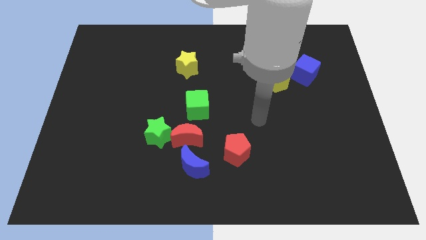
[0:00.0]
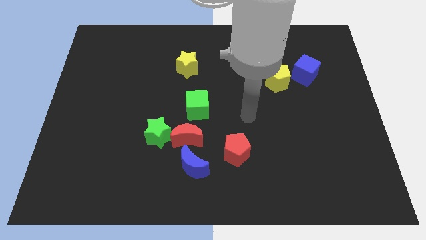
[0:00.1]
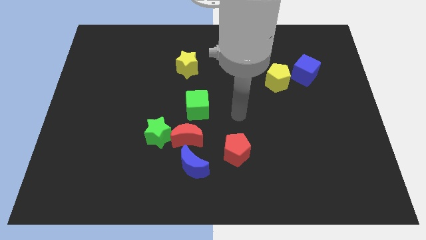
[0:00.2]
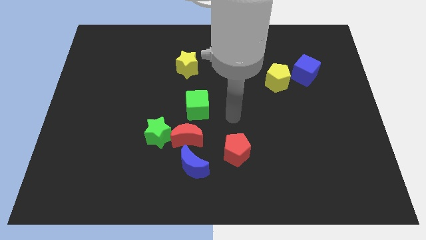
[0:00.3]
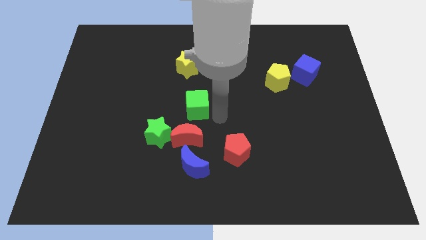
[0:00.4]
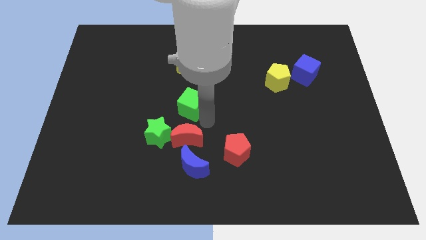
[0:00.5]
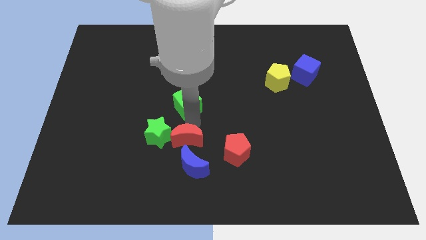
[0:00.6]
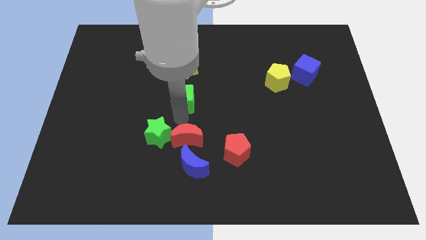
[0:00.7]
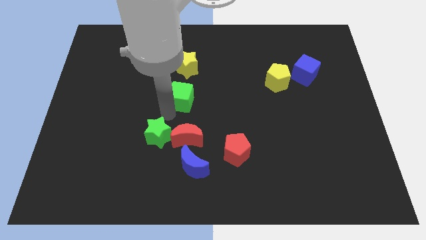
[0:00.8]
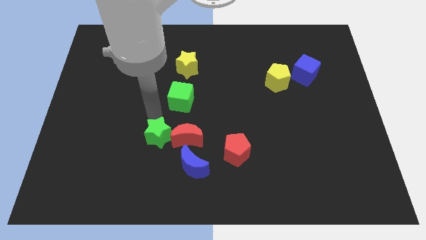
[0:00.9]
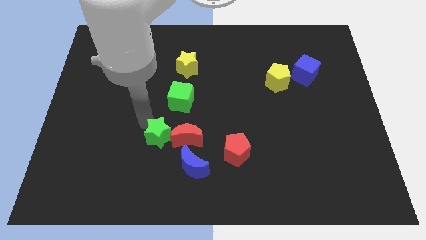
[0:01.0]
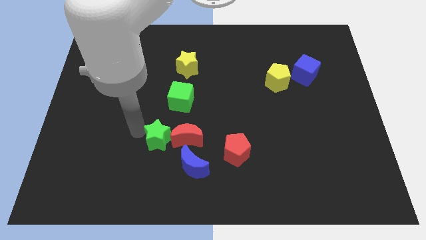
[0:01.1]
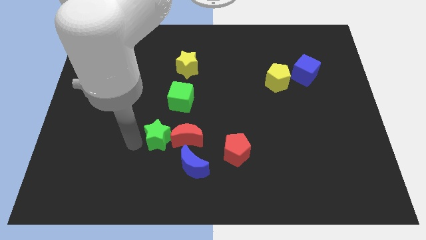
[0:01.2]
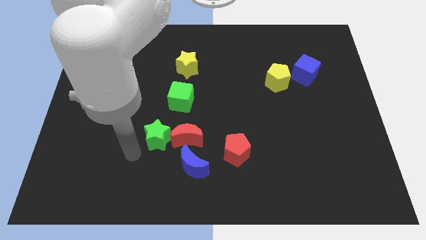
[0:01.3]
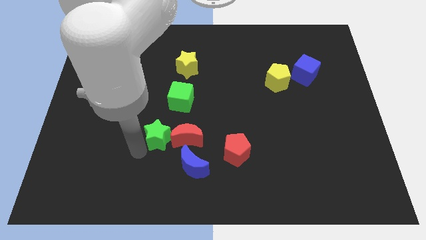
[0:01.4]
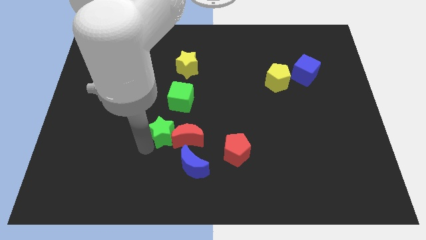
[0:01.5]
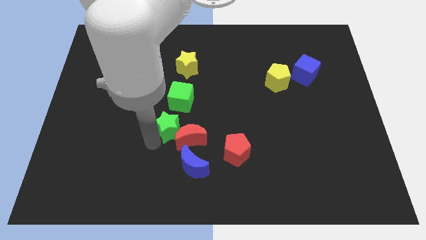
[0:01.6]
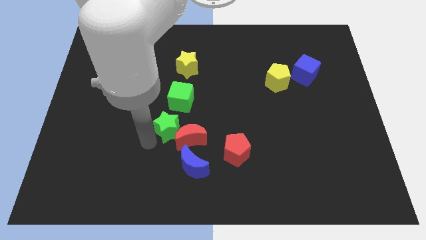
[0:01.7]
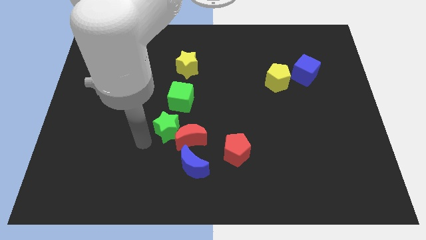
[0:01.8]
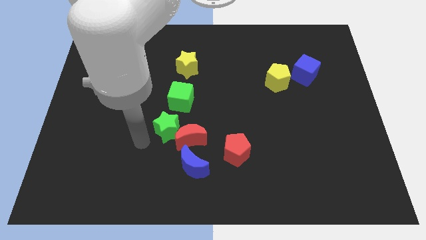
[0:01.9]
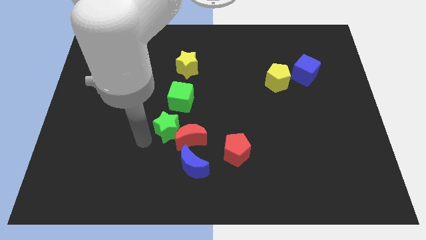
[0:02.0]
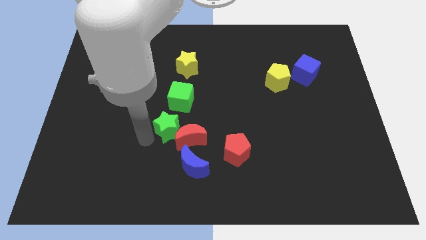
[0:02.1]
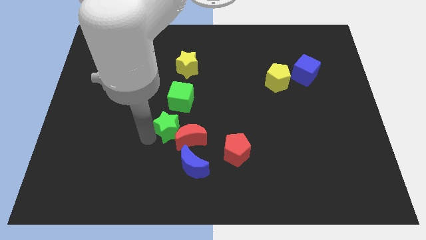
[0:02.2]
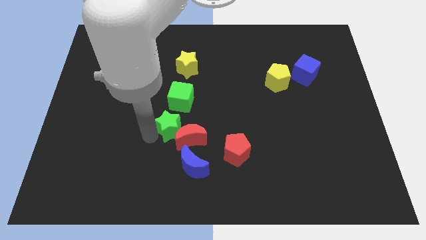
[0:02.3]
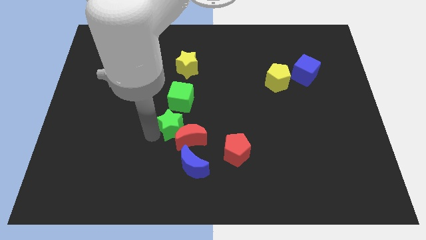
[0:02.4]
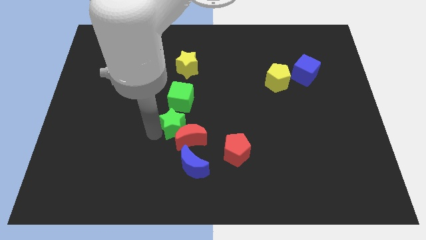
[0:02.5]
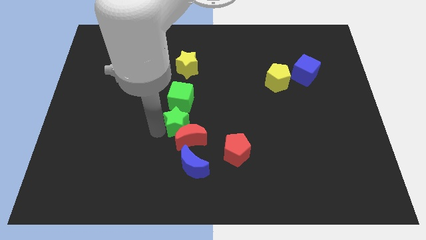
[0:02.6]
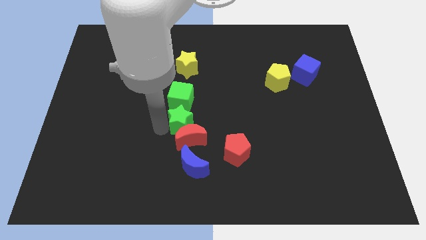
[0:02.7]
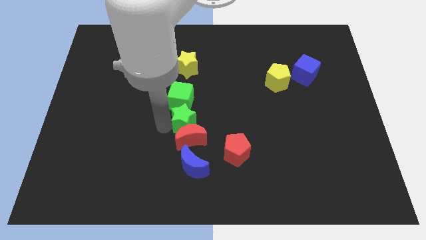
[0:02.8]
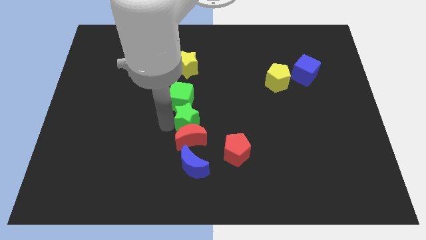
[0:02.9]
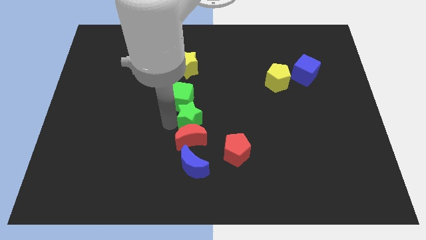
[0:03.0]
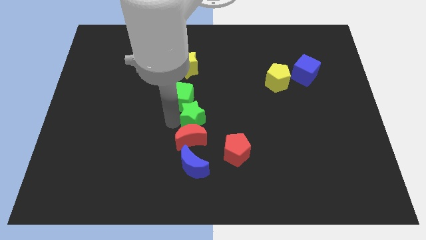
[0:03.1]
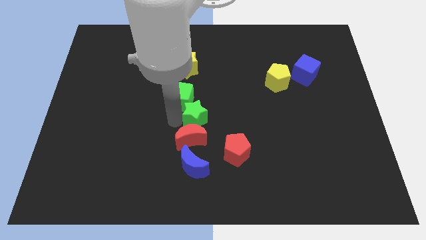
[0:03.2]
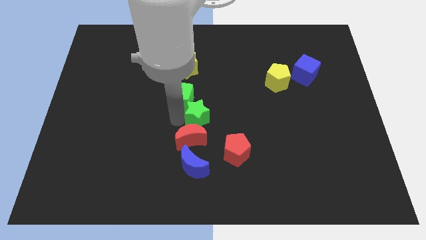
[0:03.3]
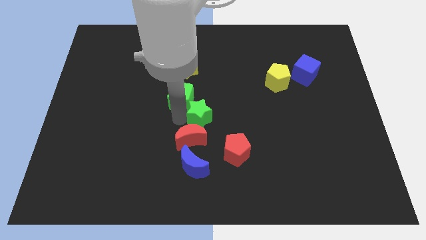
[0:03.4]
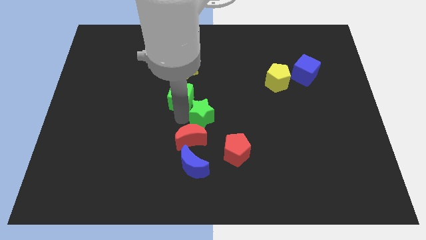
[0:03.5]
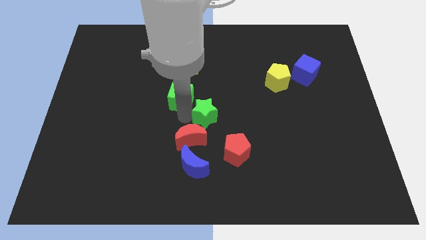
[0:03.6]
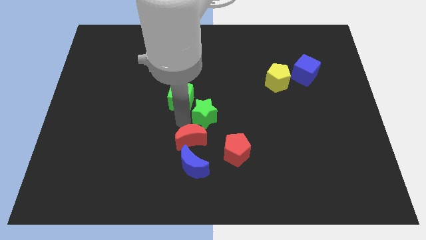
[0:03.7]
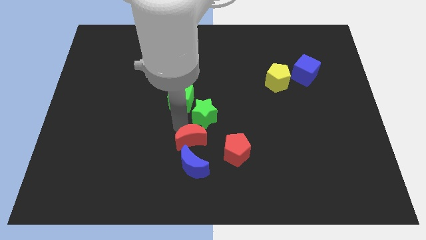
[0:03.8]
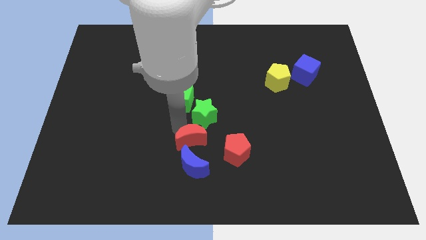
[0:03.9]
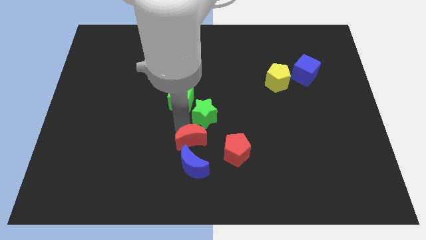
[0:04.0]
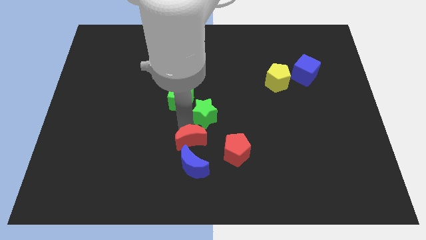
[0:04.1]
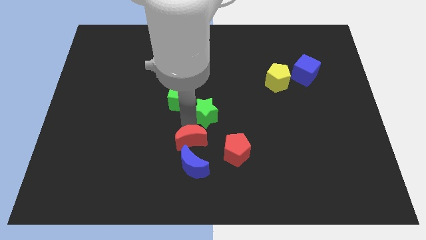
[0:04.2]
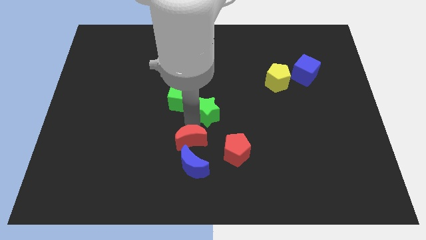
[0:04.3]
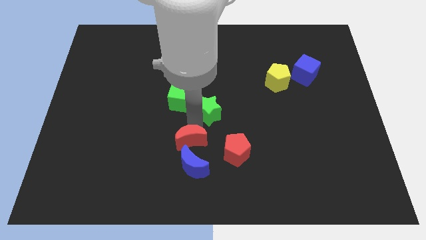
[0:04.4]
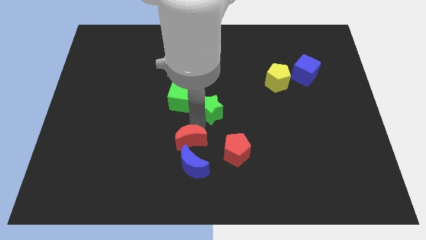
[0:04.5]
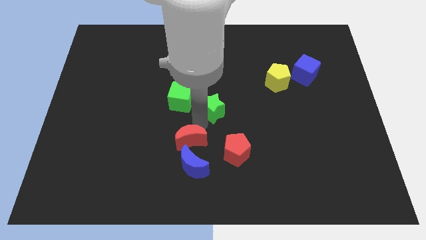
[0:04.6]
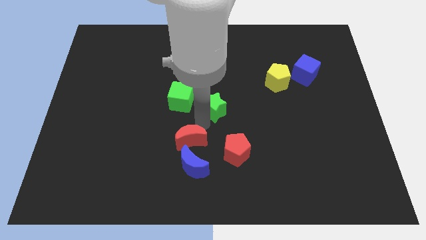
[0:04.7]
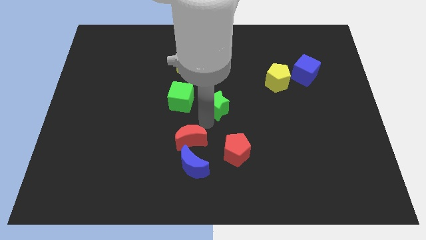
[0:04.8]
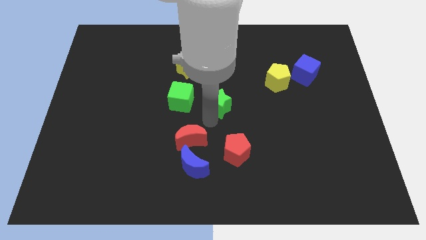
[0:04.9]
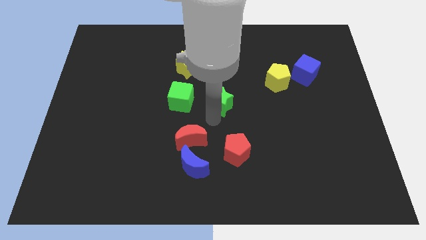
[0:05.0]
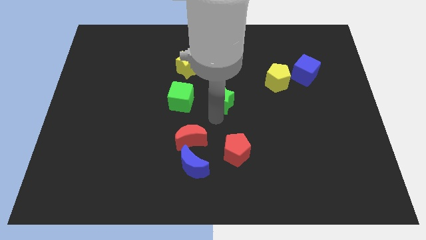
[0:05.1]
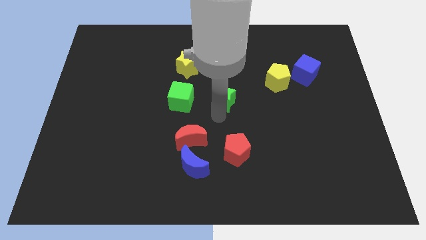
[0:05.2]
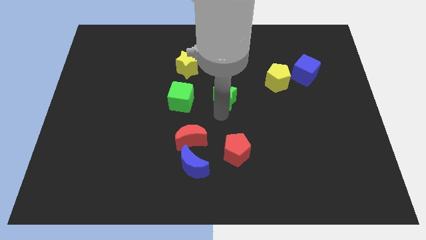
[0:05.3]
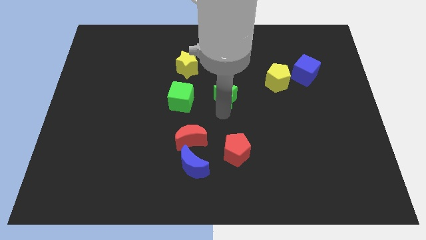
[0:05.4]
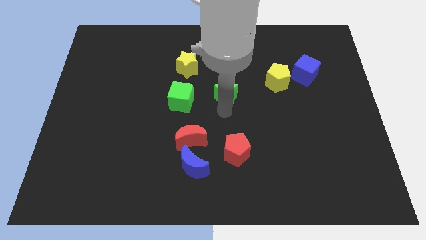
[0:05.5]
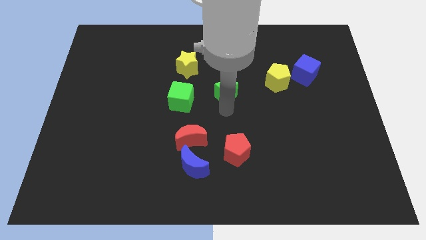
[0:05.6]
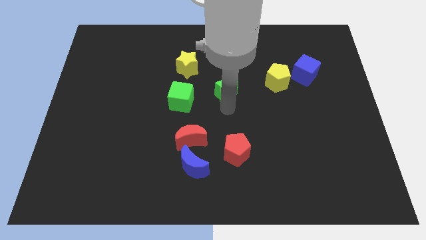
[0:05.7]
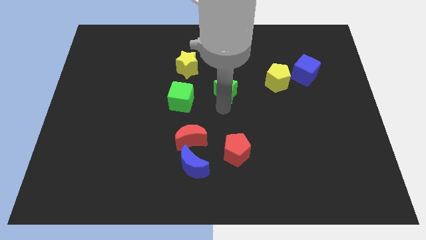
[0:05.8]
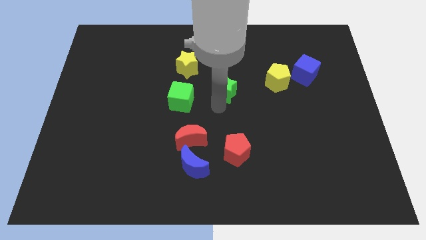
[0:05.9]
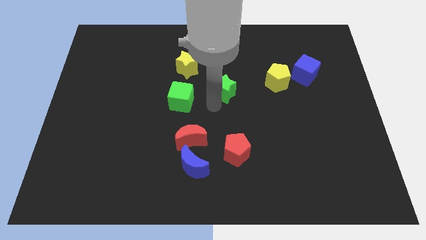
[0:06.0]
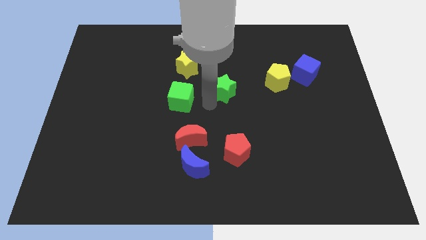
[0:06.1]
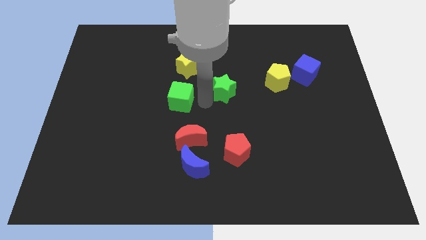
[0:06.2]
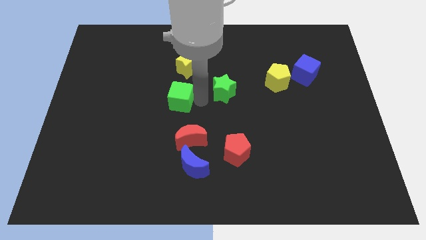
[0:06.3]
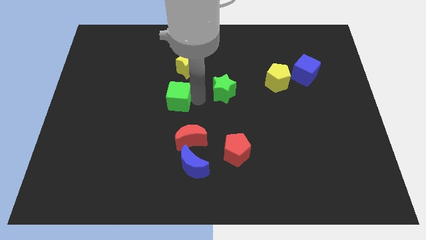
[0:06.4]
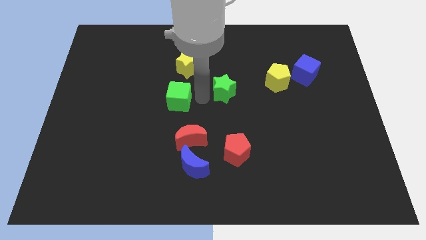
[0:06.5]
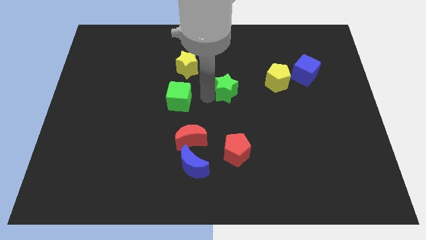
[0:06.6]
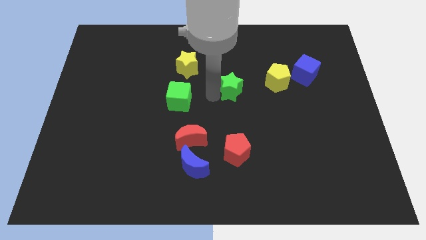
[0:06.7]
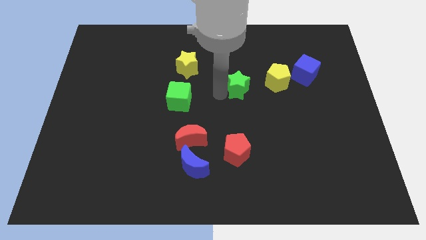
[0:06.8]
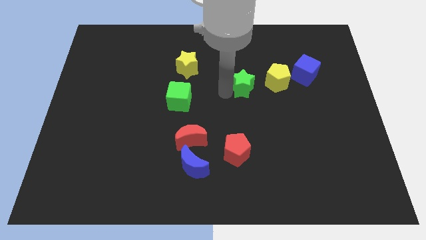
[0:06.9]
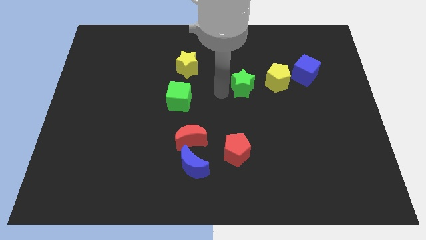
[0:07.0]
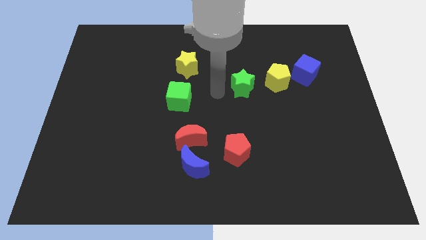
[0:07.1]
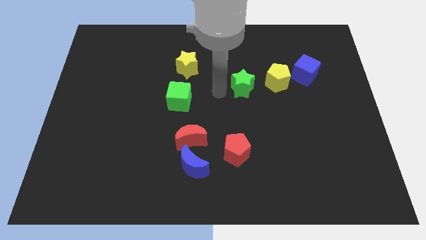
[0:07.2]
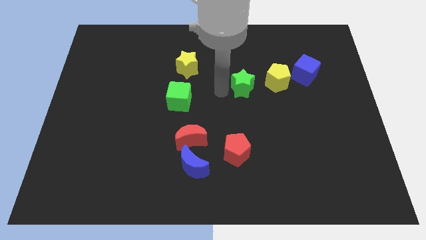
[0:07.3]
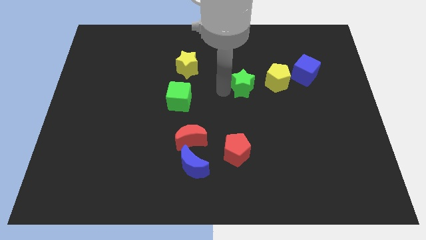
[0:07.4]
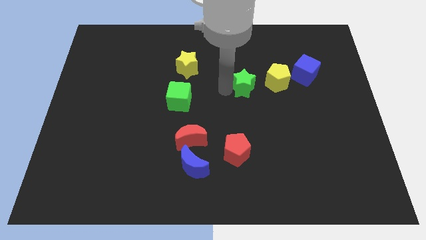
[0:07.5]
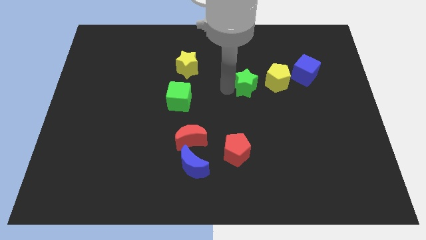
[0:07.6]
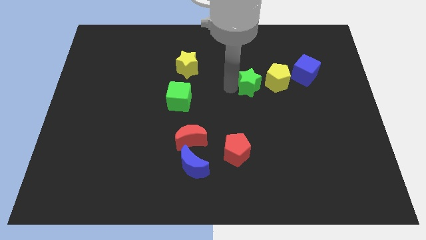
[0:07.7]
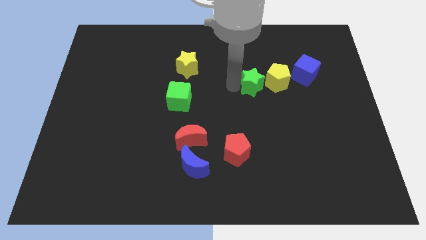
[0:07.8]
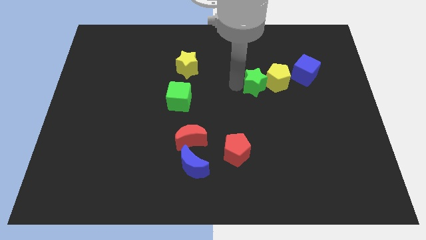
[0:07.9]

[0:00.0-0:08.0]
move the green star towards the yellow pentagon
